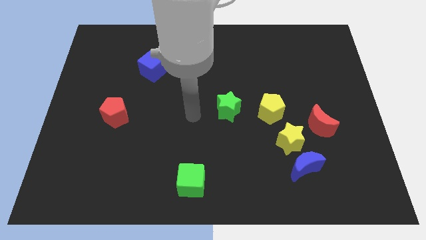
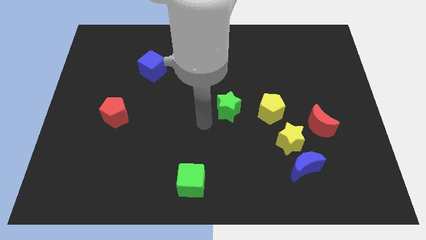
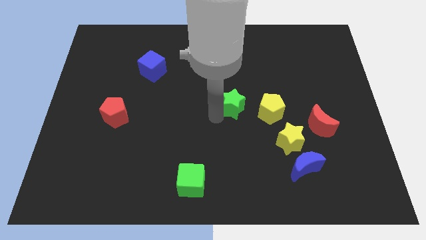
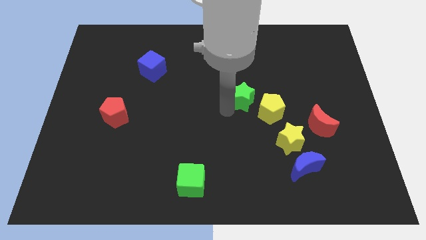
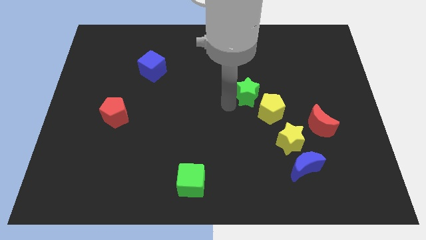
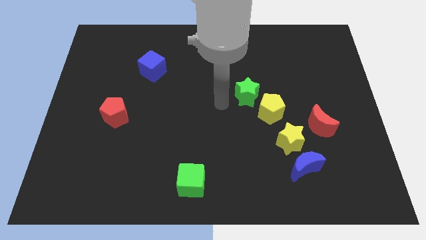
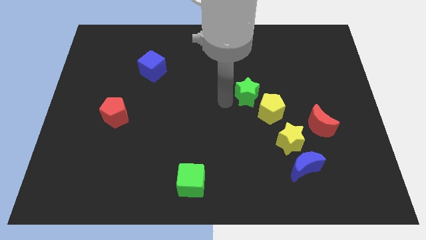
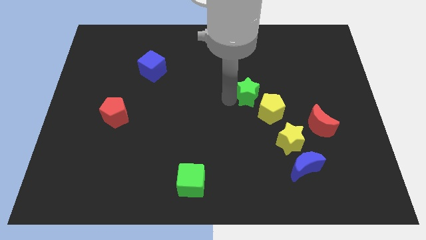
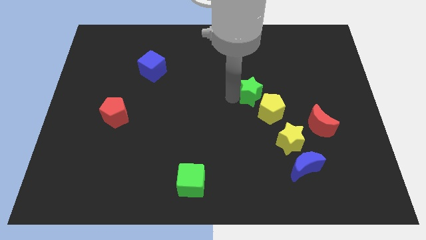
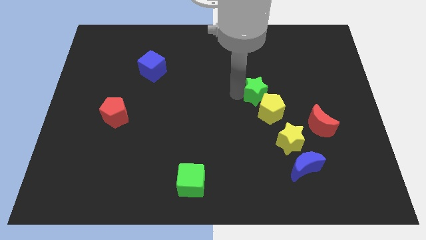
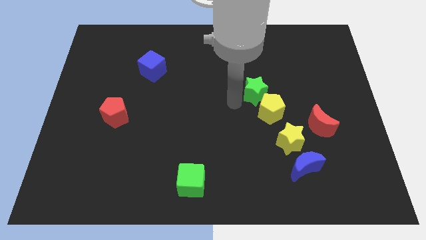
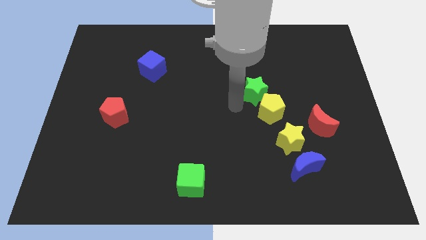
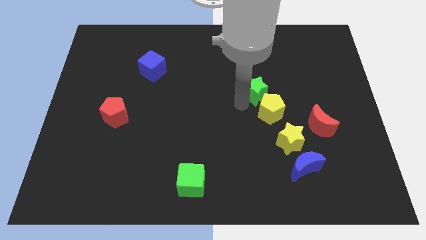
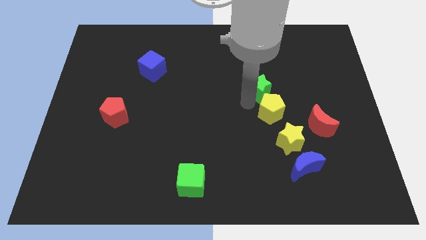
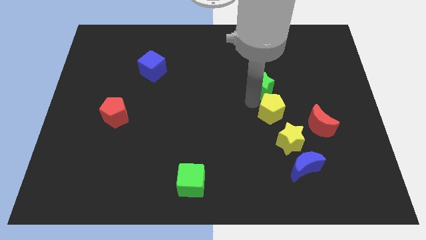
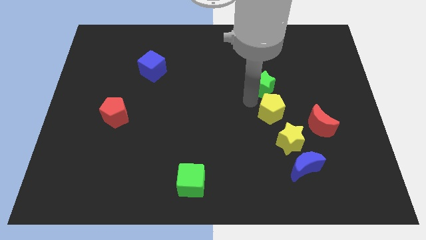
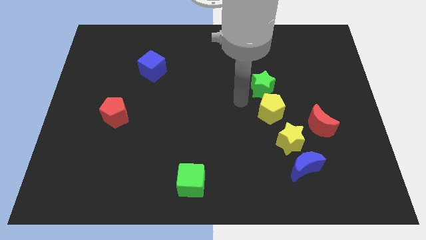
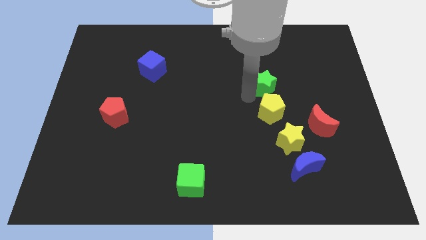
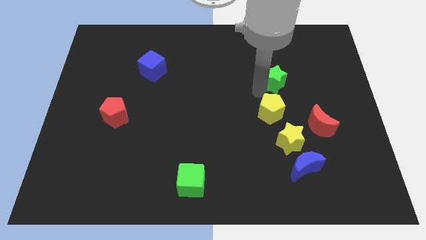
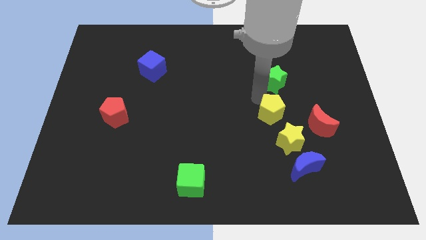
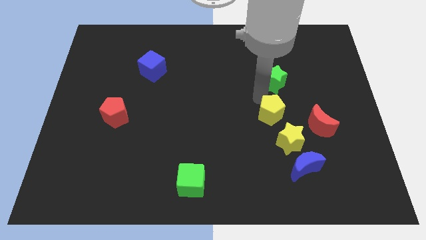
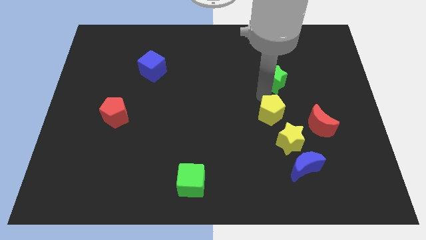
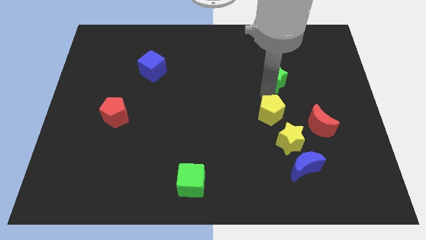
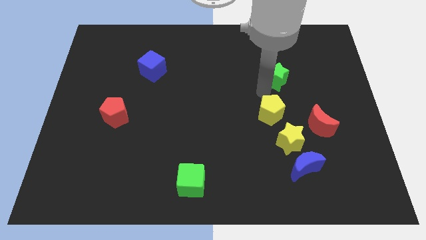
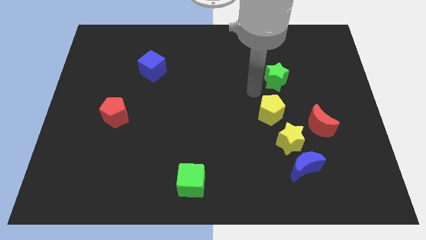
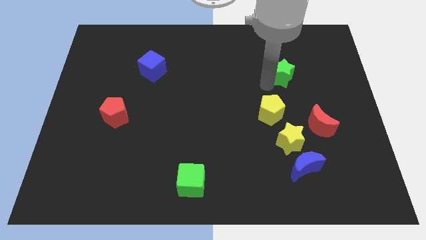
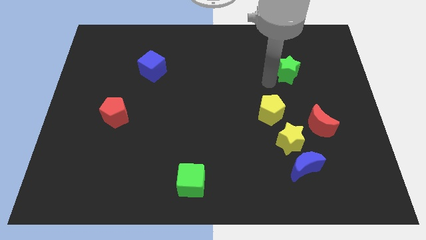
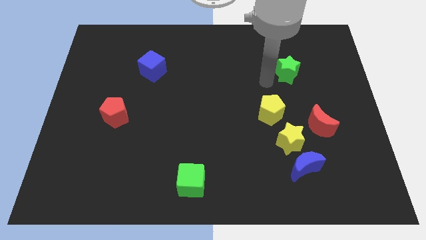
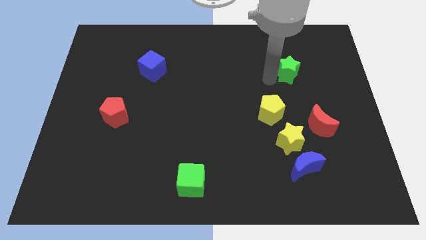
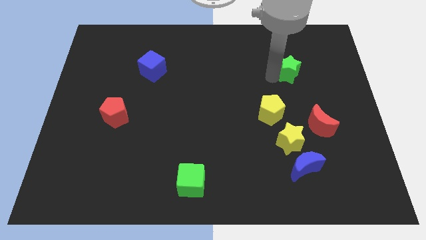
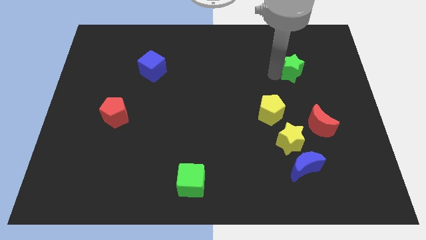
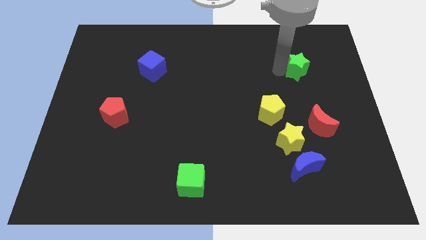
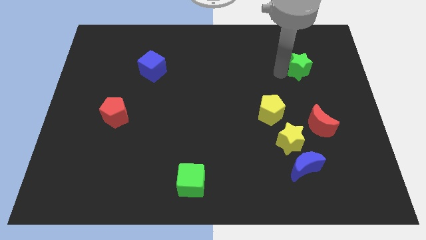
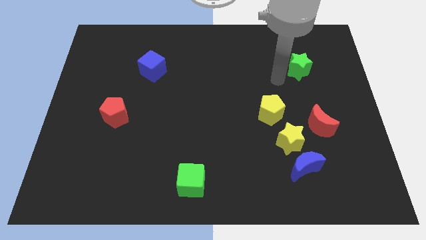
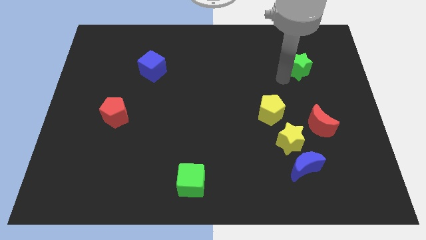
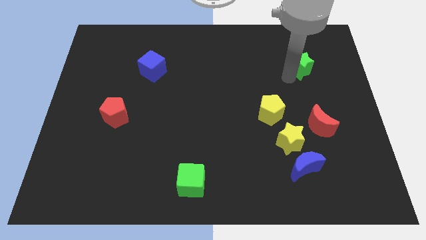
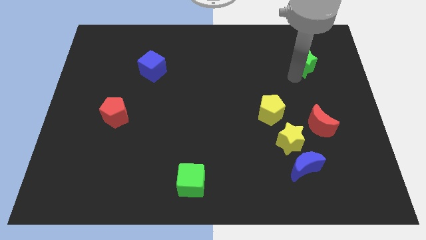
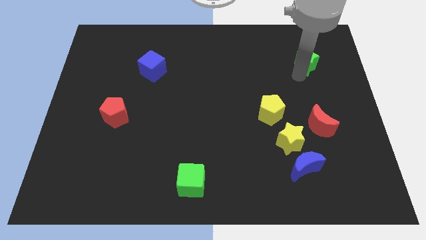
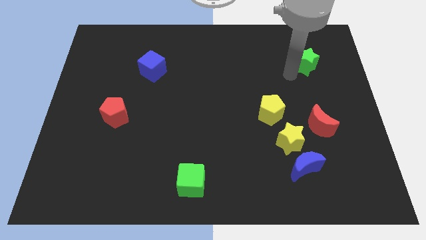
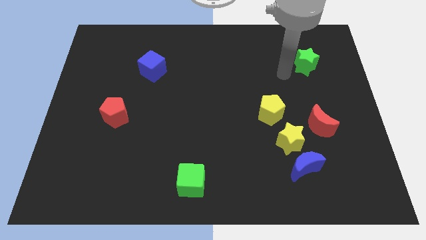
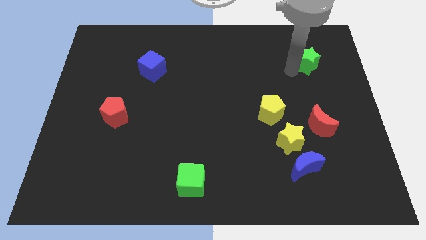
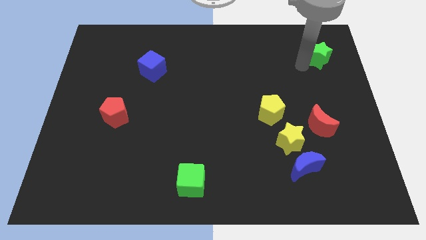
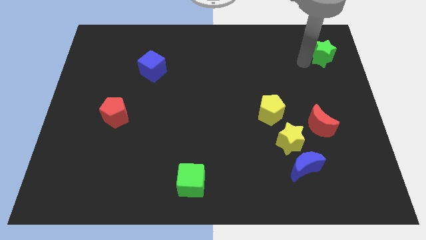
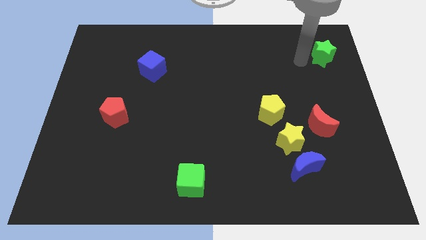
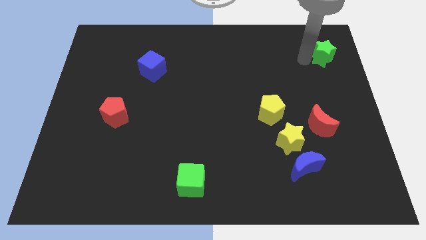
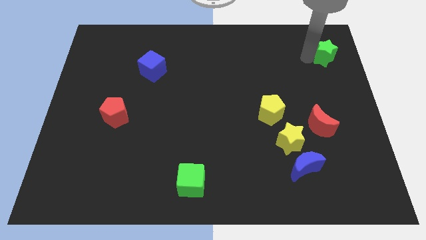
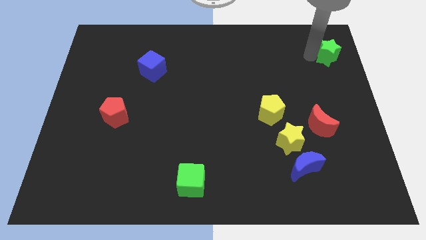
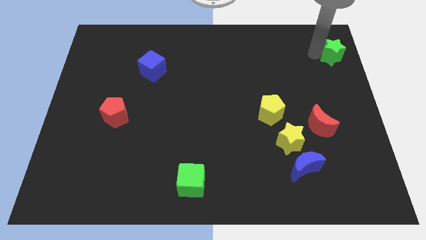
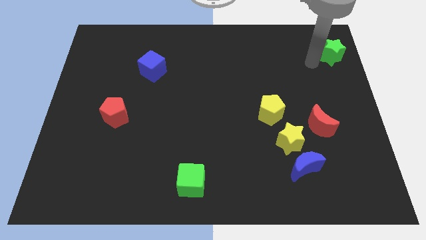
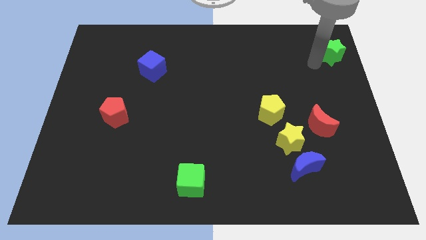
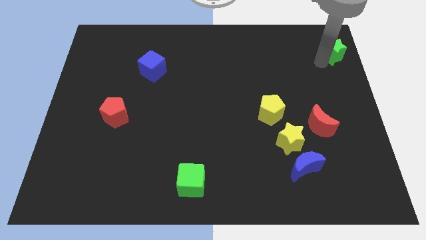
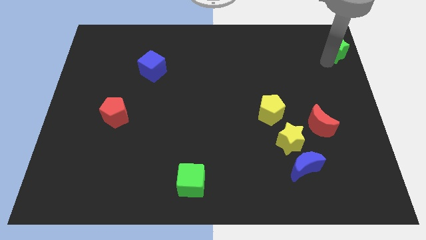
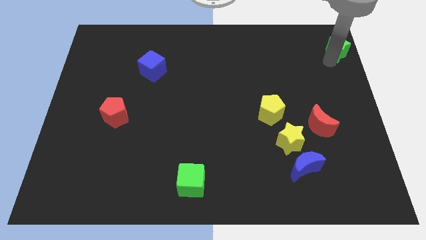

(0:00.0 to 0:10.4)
put the green star to the upper right corner

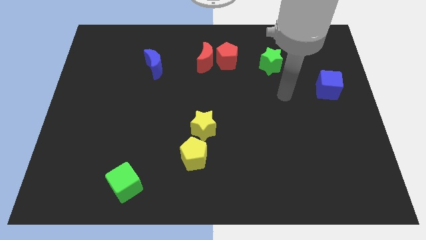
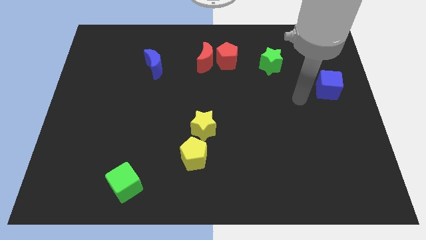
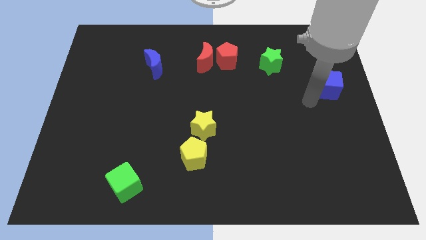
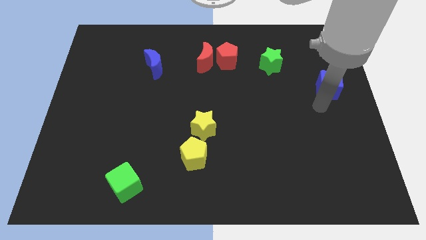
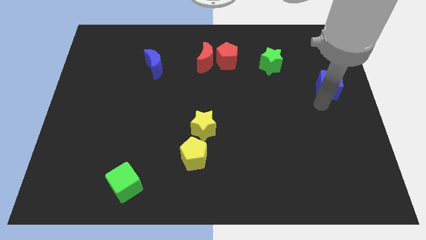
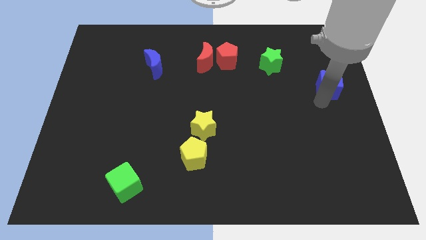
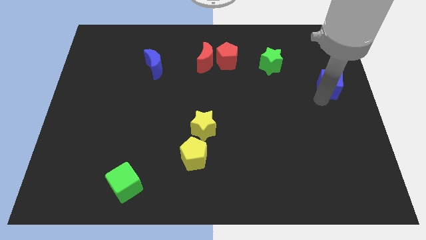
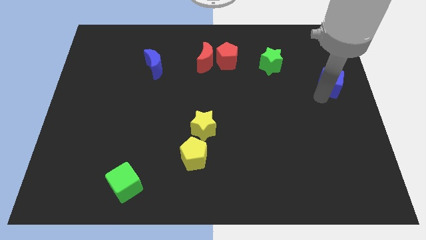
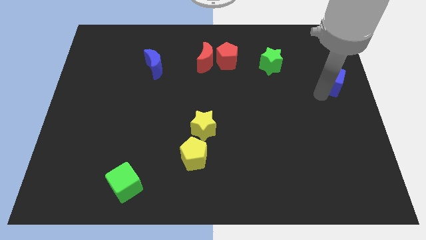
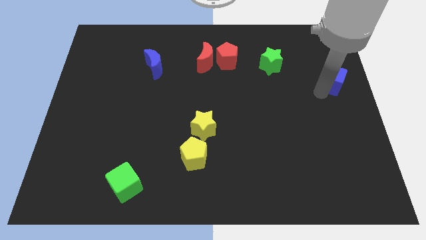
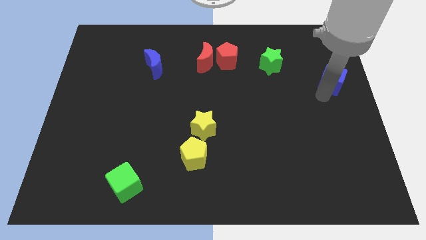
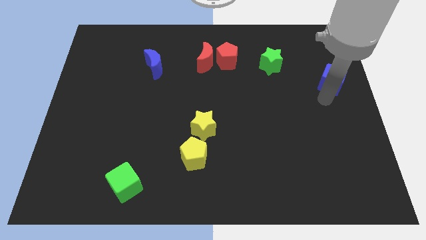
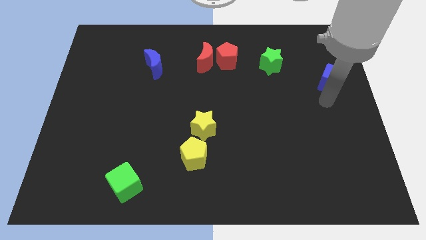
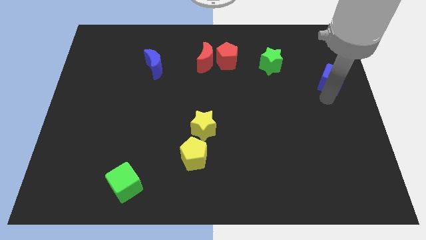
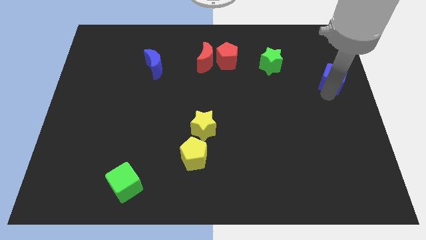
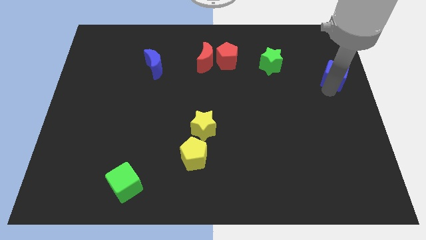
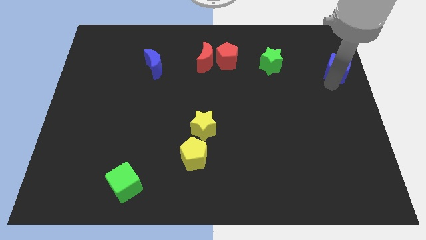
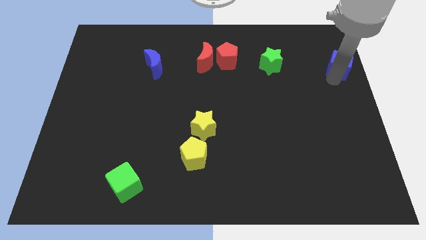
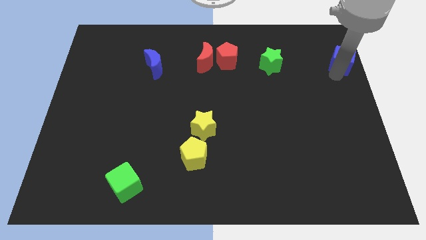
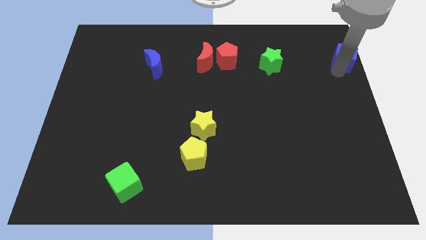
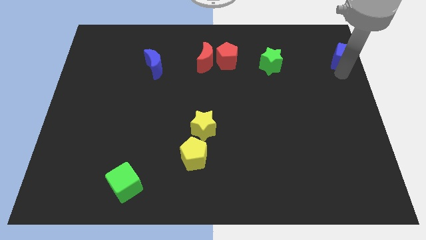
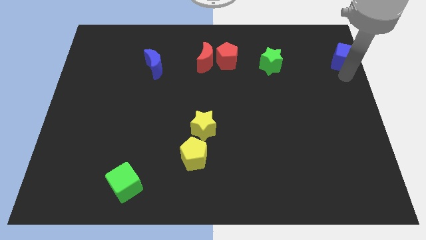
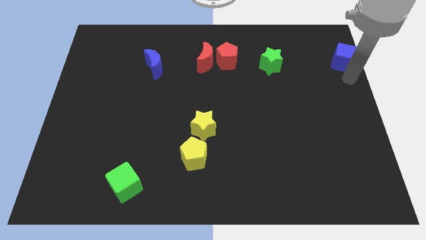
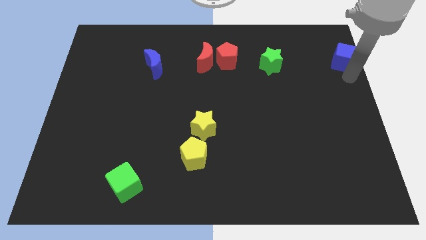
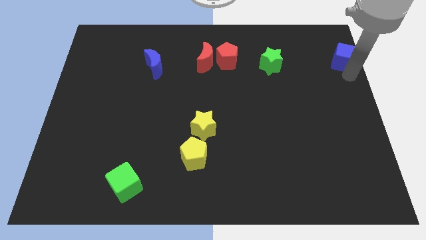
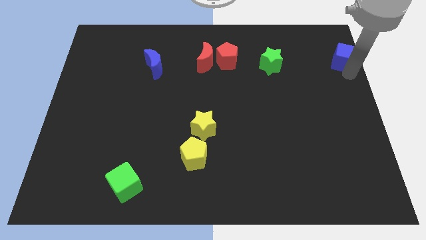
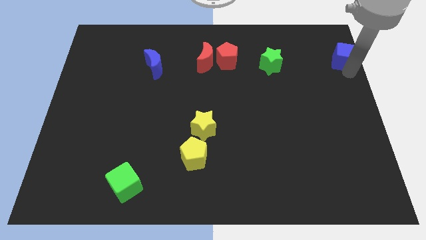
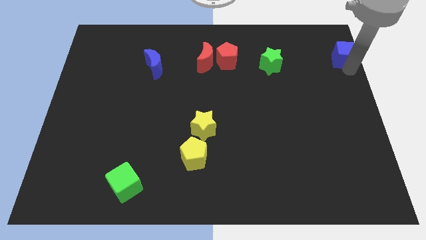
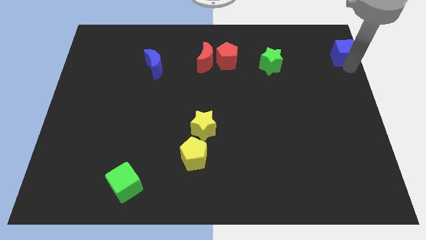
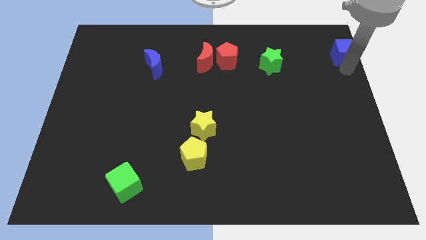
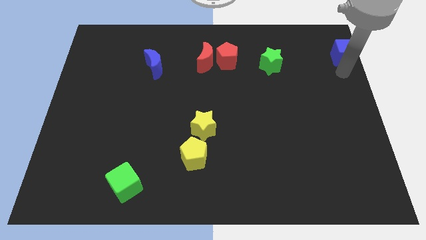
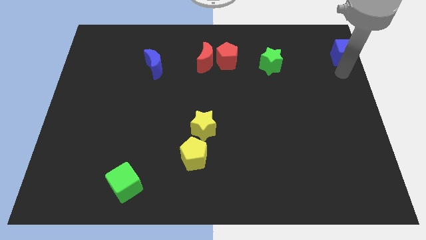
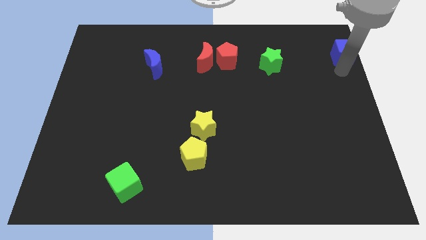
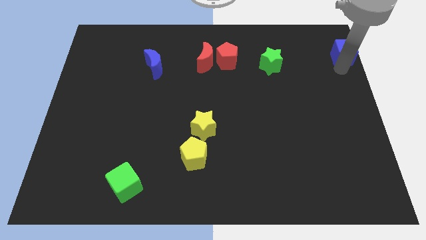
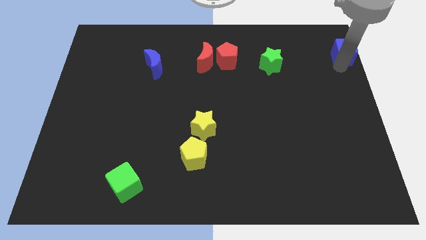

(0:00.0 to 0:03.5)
push the blue cube to the top right
